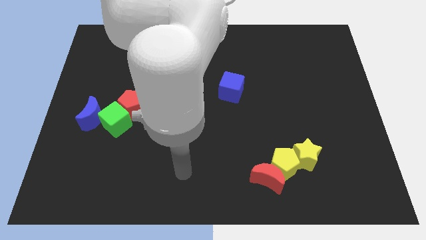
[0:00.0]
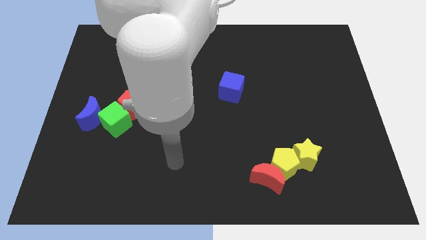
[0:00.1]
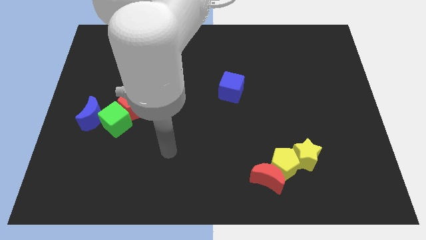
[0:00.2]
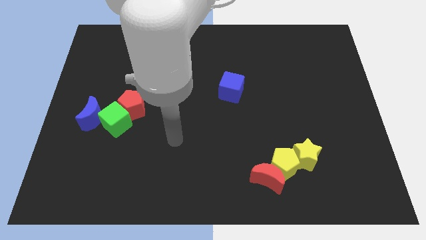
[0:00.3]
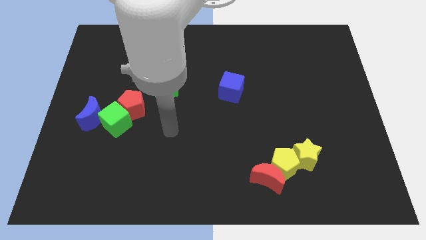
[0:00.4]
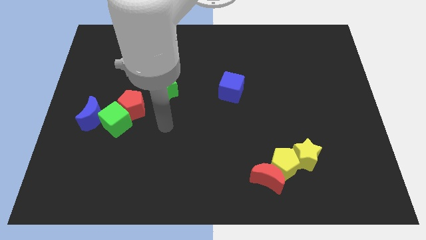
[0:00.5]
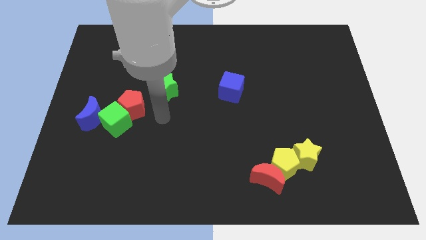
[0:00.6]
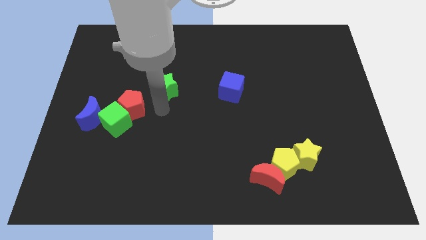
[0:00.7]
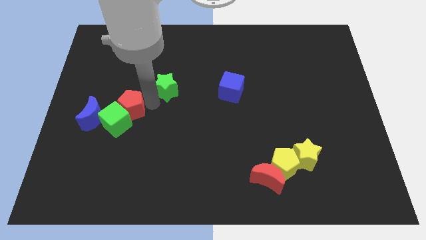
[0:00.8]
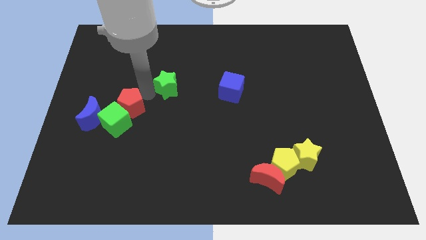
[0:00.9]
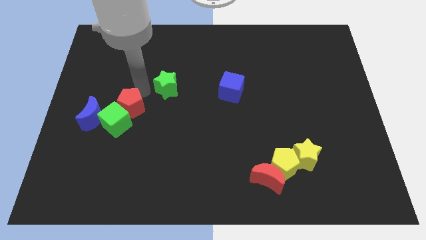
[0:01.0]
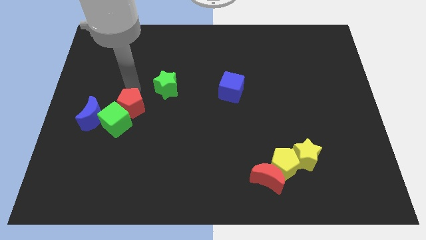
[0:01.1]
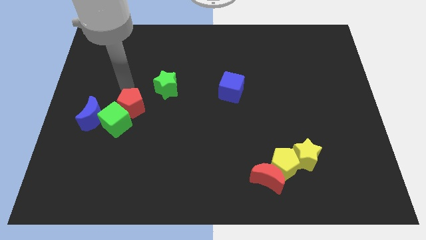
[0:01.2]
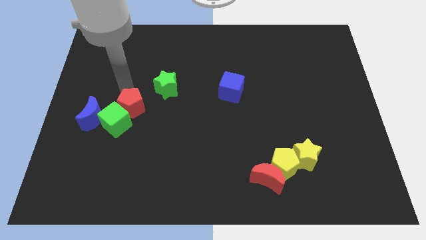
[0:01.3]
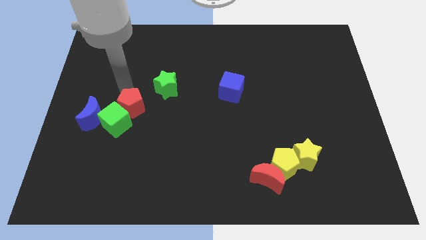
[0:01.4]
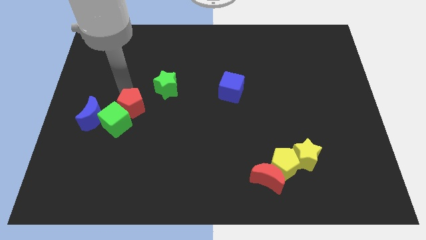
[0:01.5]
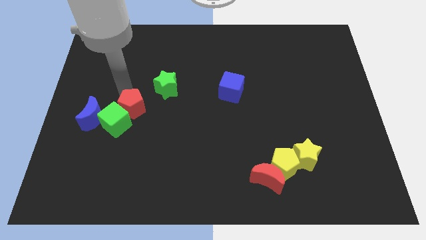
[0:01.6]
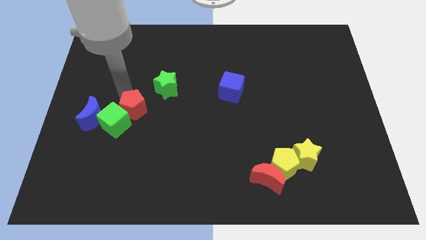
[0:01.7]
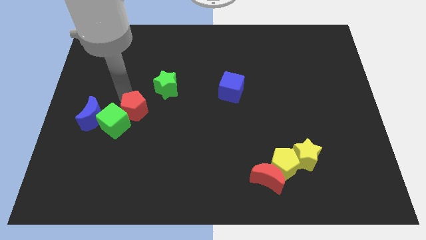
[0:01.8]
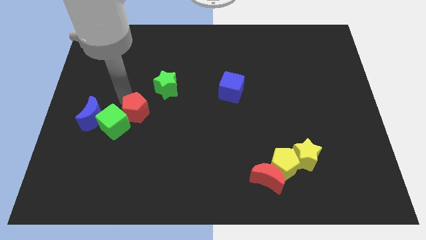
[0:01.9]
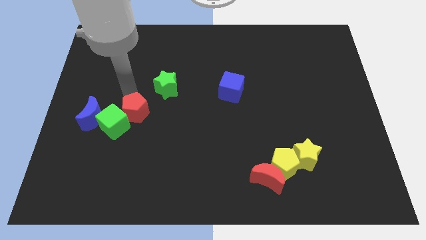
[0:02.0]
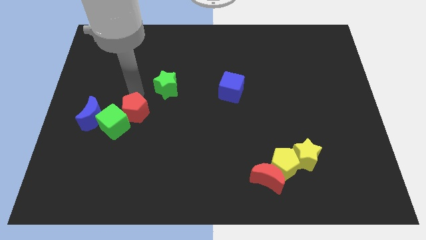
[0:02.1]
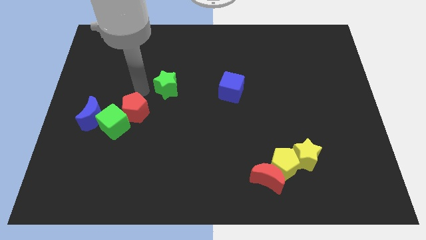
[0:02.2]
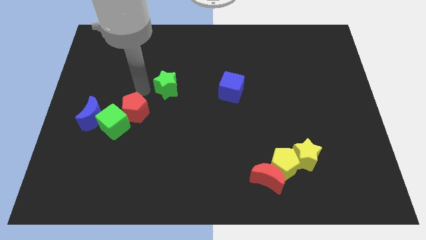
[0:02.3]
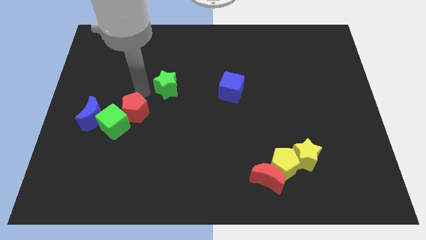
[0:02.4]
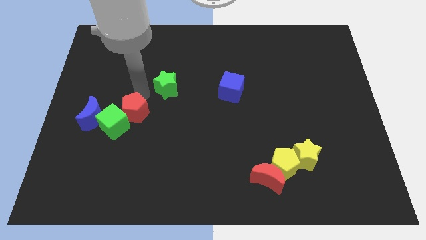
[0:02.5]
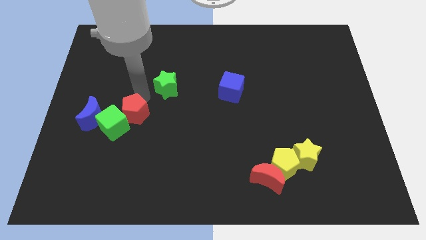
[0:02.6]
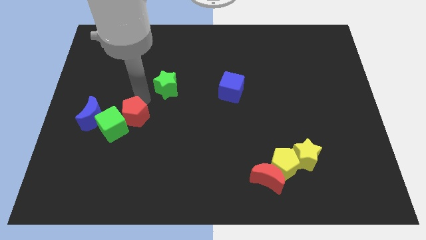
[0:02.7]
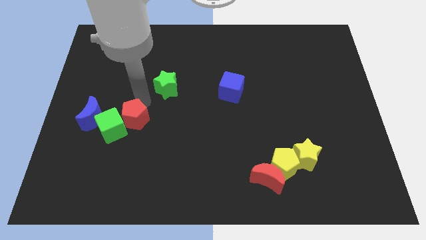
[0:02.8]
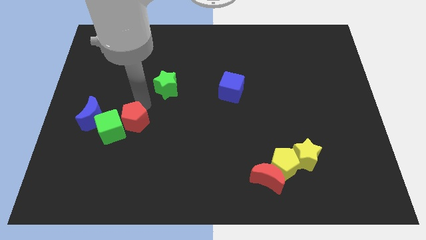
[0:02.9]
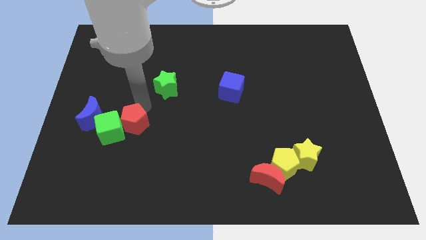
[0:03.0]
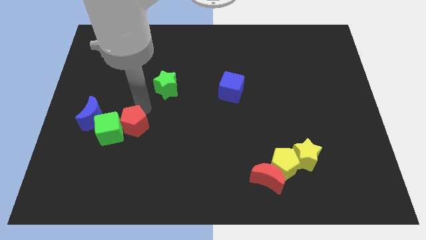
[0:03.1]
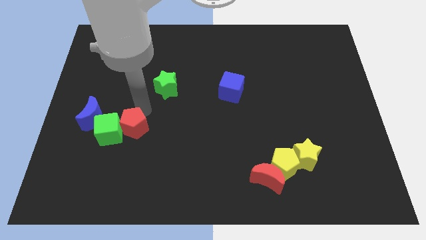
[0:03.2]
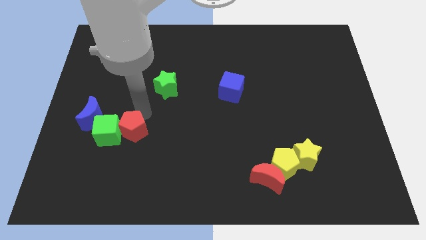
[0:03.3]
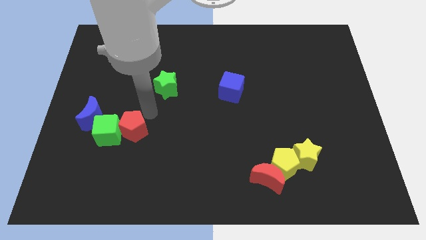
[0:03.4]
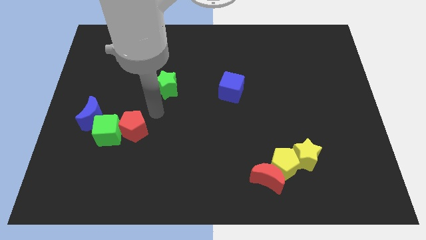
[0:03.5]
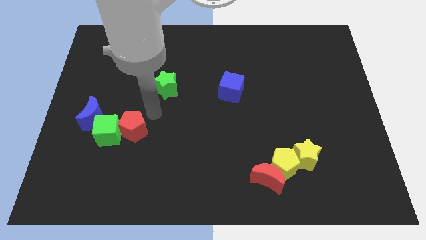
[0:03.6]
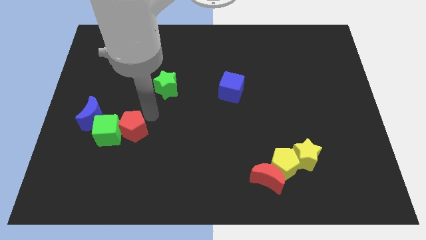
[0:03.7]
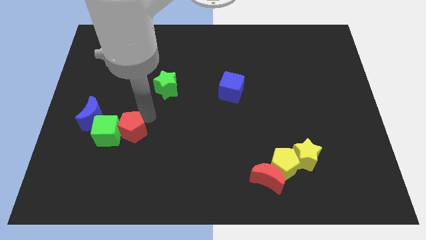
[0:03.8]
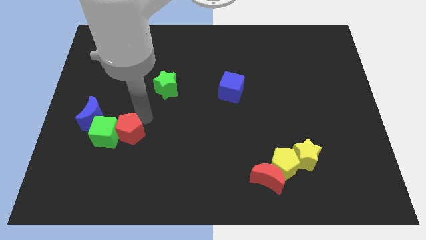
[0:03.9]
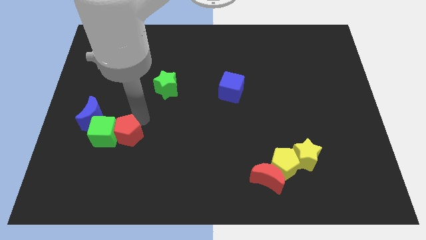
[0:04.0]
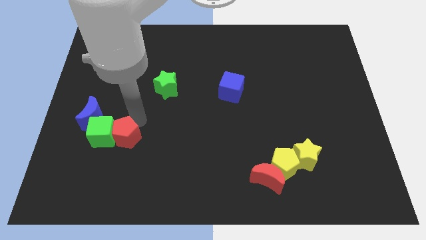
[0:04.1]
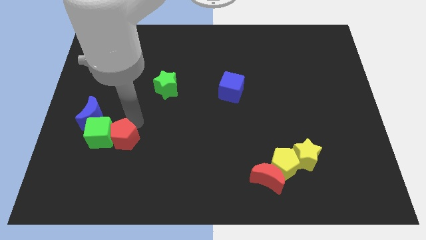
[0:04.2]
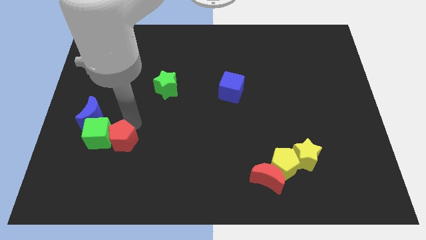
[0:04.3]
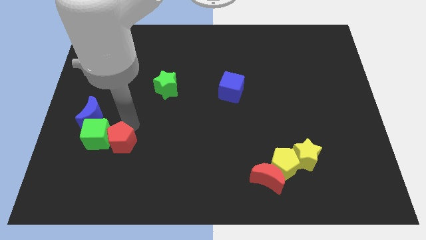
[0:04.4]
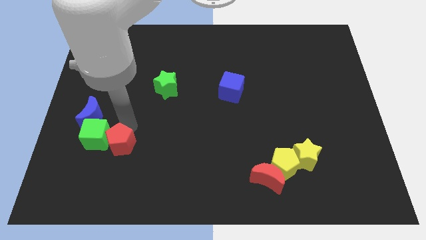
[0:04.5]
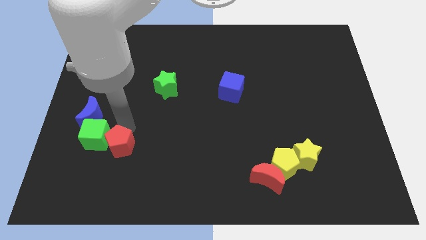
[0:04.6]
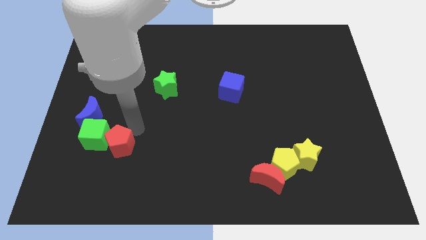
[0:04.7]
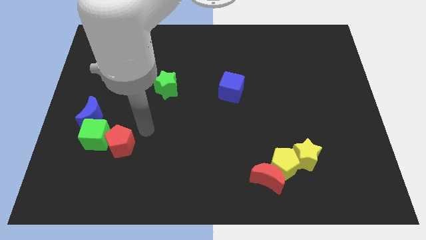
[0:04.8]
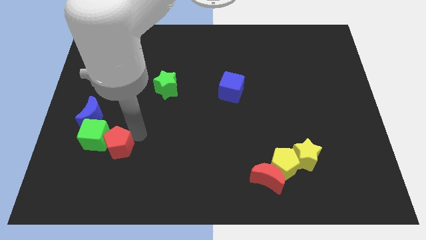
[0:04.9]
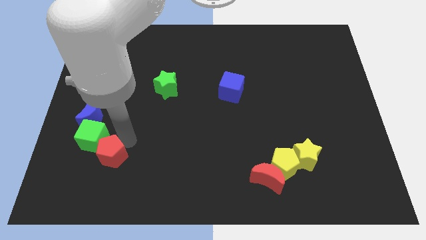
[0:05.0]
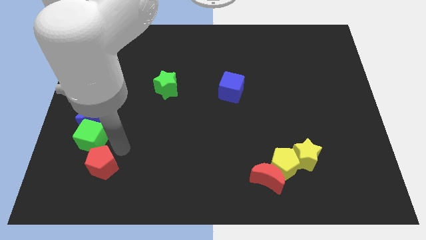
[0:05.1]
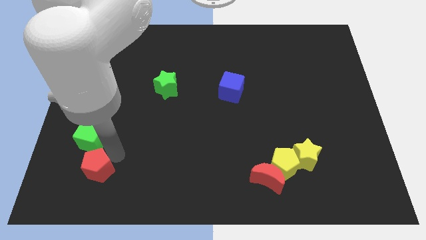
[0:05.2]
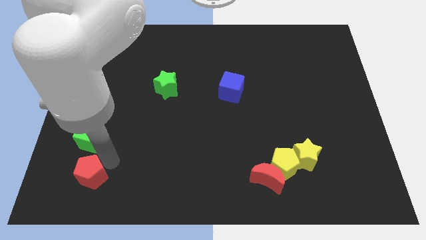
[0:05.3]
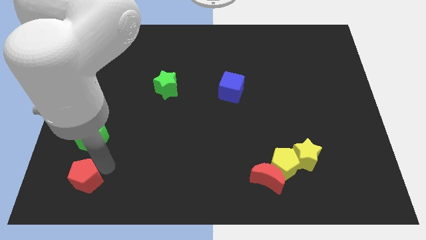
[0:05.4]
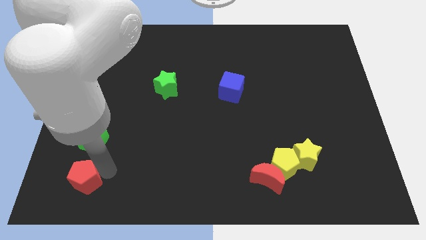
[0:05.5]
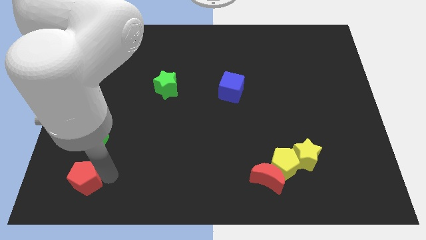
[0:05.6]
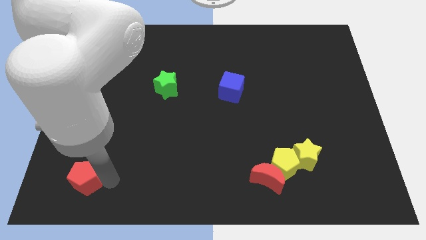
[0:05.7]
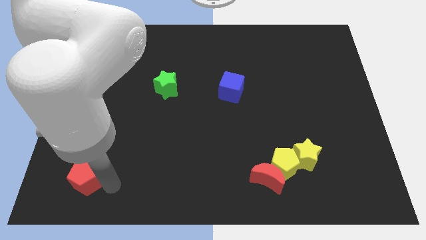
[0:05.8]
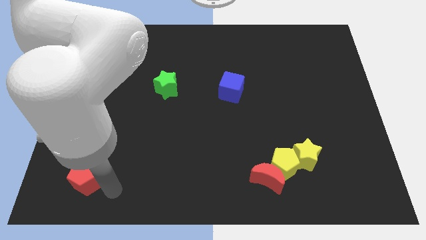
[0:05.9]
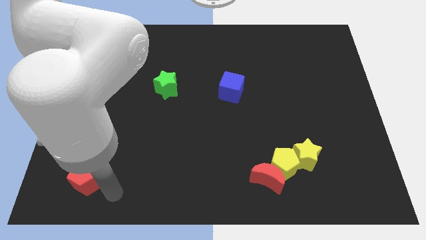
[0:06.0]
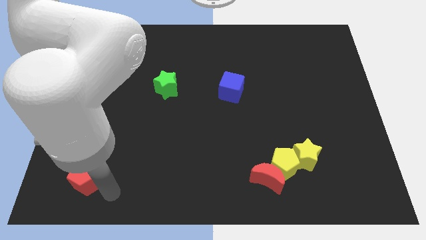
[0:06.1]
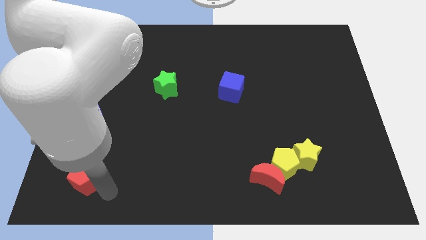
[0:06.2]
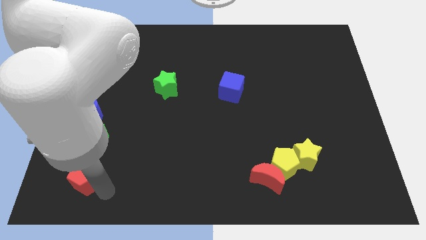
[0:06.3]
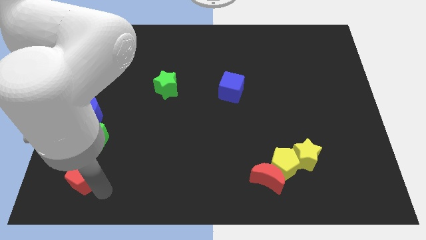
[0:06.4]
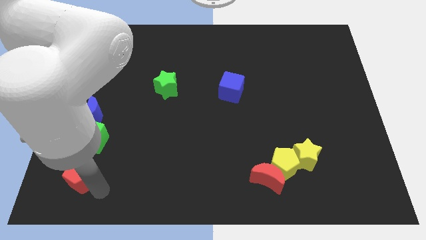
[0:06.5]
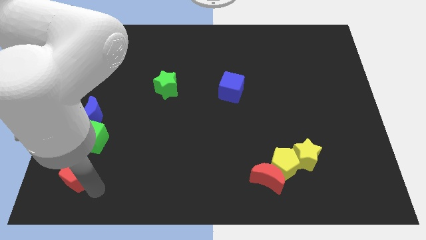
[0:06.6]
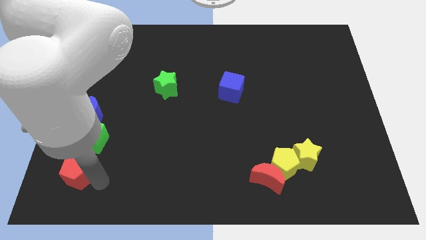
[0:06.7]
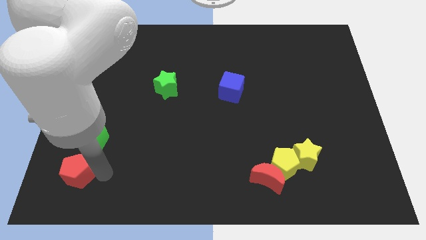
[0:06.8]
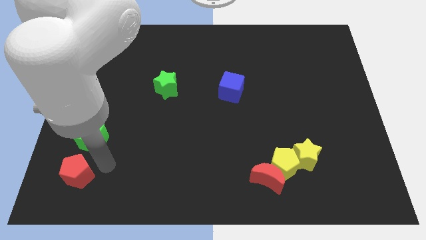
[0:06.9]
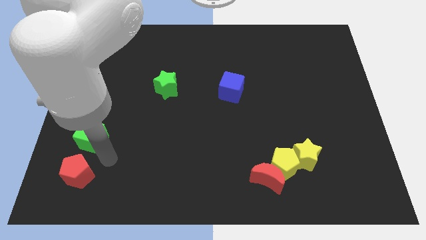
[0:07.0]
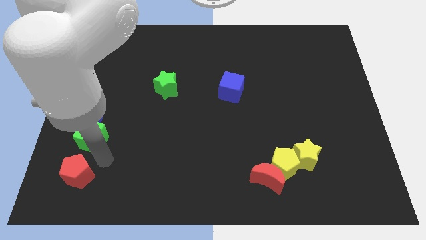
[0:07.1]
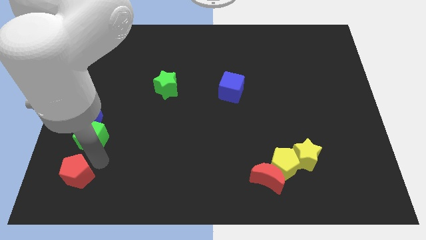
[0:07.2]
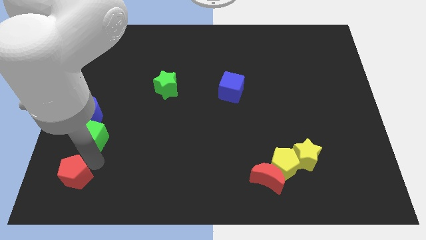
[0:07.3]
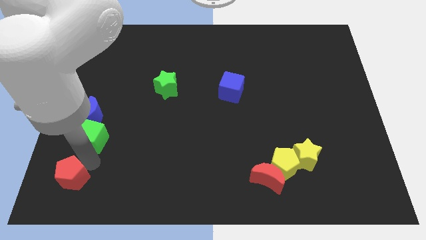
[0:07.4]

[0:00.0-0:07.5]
push the red pentagon to the bottom left corner
